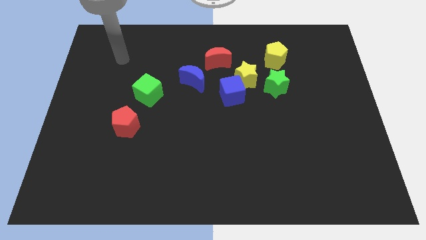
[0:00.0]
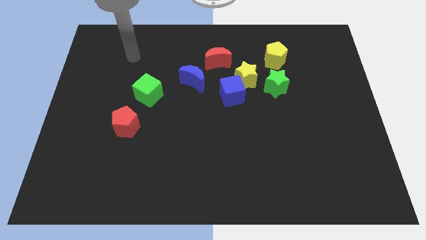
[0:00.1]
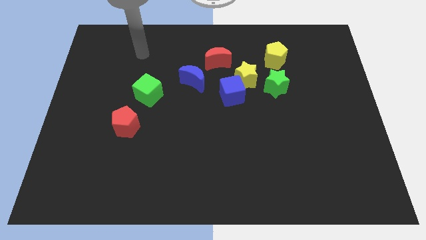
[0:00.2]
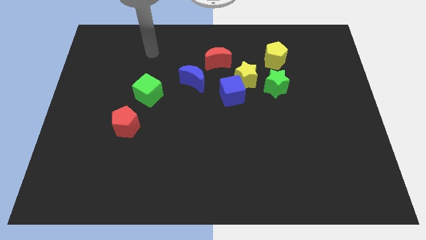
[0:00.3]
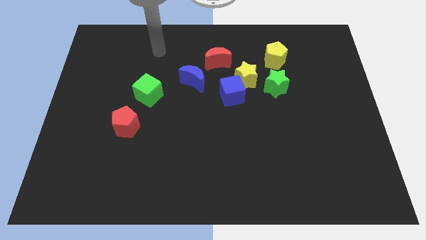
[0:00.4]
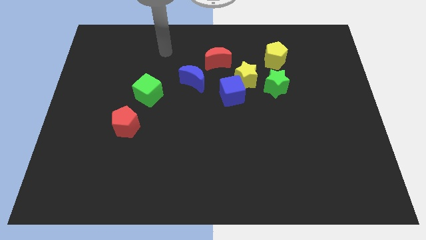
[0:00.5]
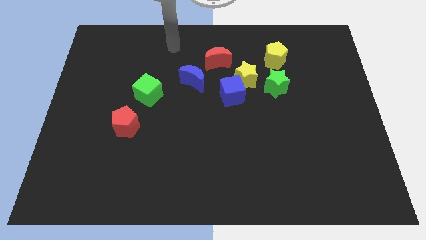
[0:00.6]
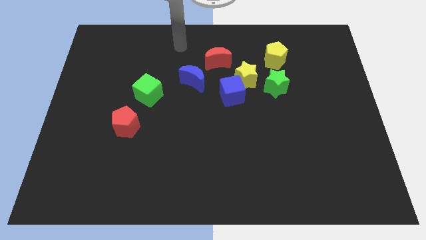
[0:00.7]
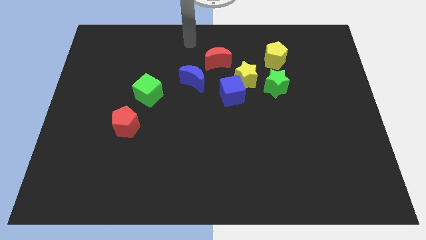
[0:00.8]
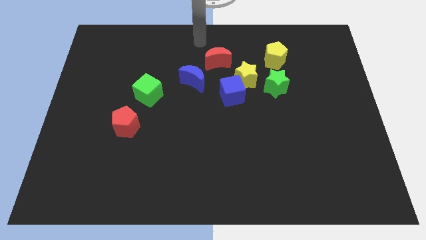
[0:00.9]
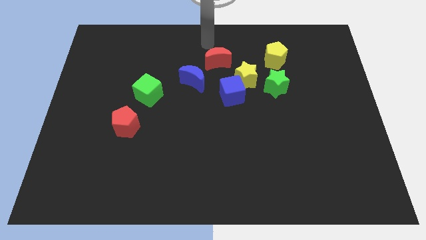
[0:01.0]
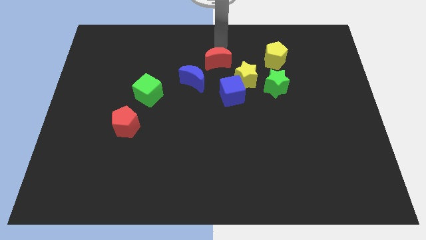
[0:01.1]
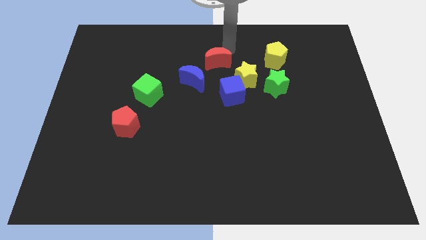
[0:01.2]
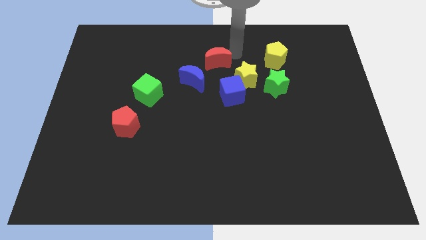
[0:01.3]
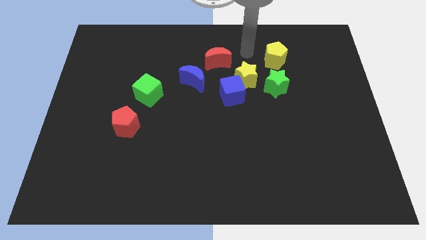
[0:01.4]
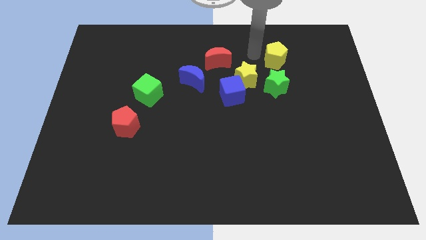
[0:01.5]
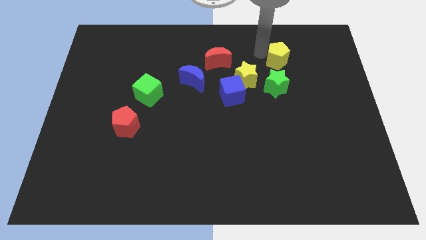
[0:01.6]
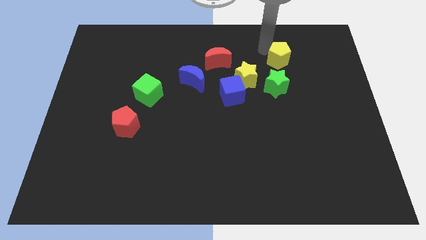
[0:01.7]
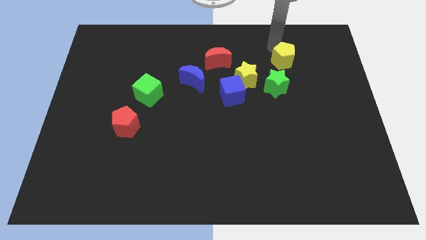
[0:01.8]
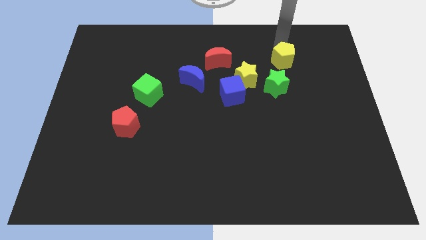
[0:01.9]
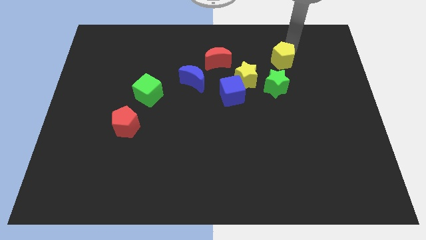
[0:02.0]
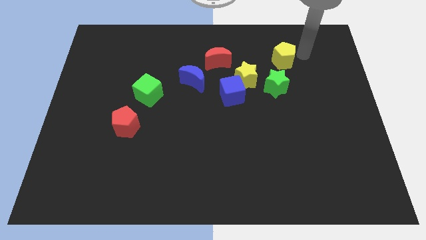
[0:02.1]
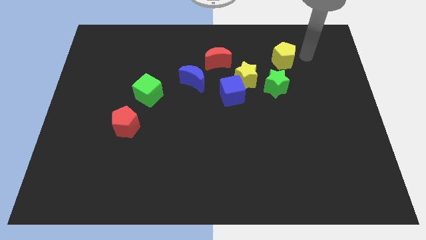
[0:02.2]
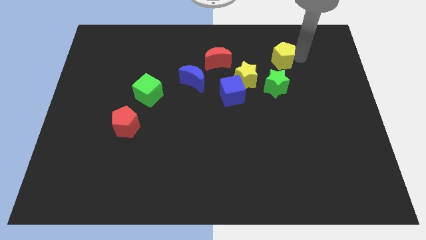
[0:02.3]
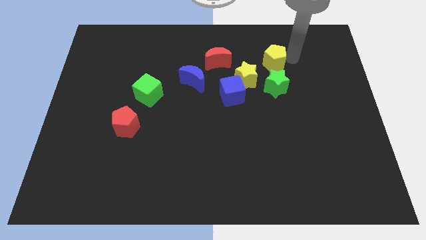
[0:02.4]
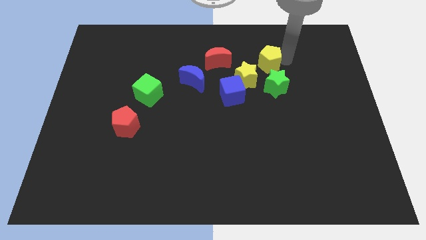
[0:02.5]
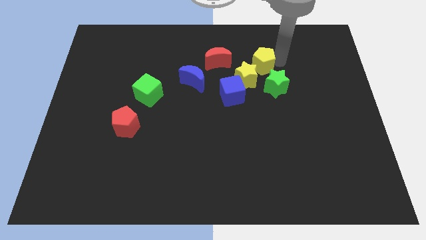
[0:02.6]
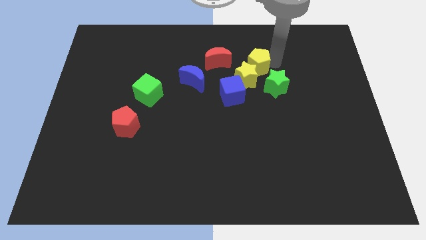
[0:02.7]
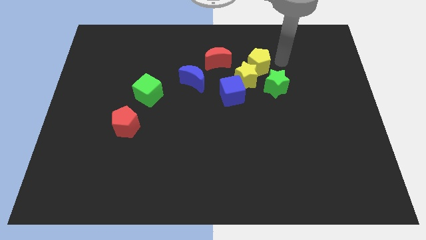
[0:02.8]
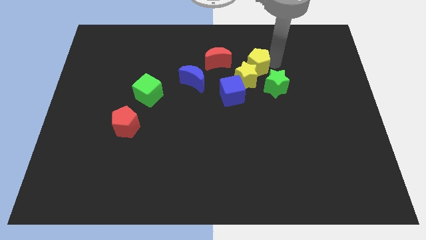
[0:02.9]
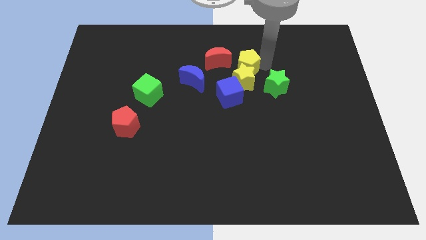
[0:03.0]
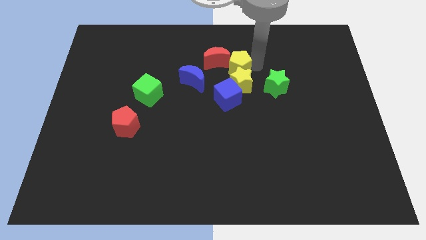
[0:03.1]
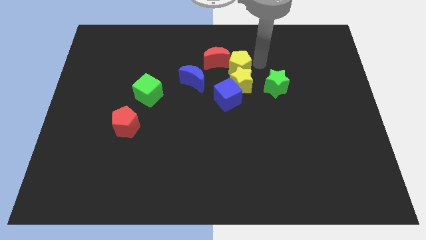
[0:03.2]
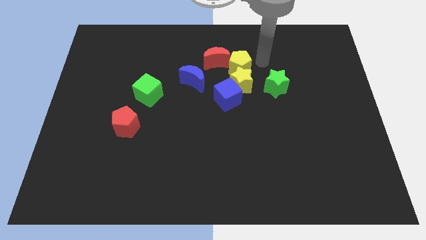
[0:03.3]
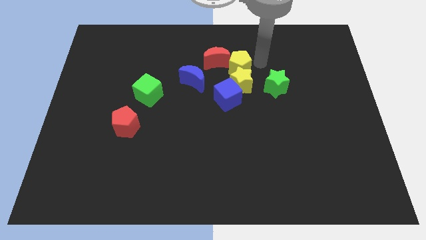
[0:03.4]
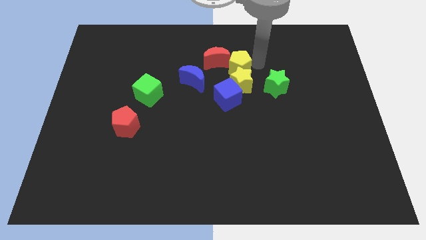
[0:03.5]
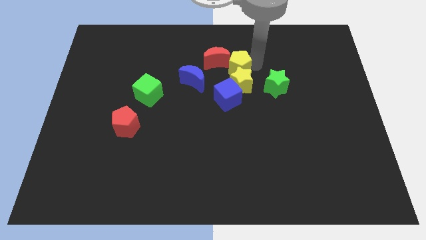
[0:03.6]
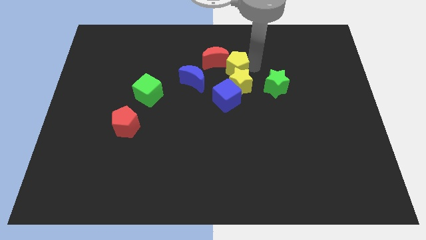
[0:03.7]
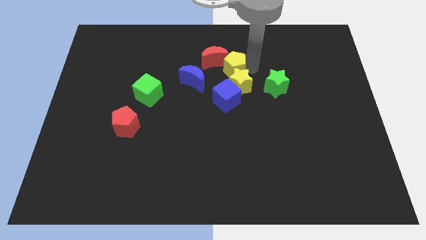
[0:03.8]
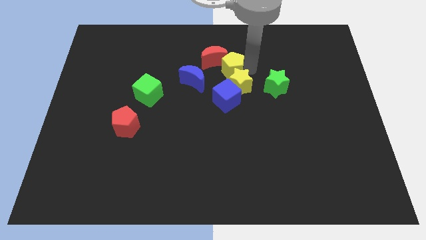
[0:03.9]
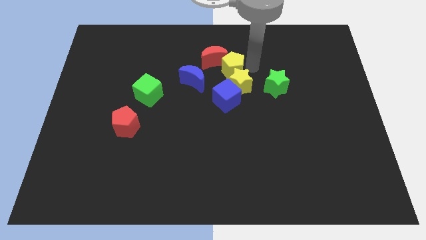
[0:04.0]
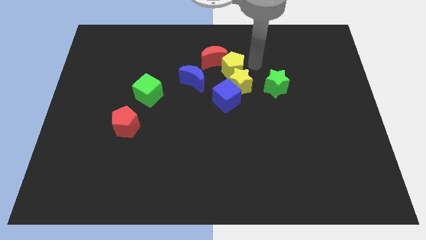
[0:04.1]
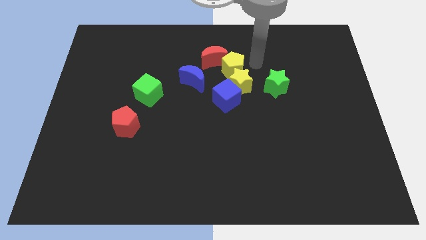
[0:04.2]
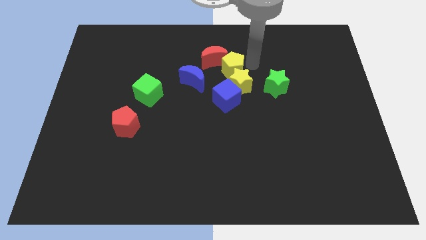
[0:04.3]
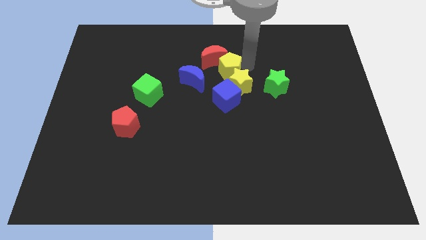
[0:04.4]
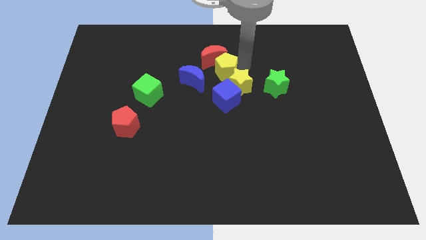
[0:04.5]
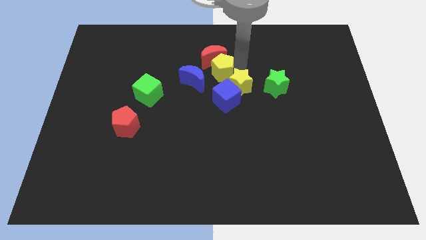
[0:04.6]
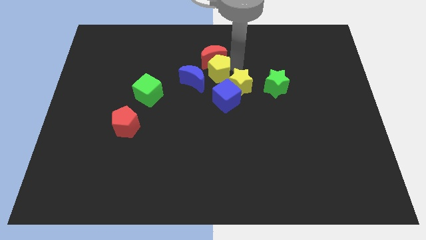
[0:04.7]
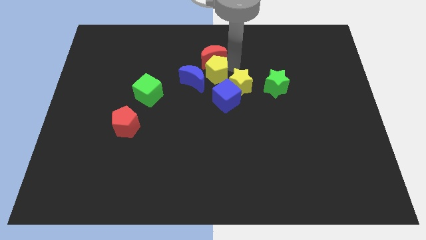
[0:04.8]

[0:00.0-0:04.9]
move the yellow pentagon next to the blue moon

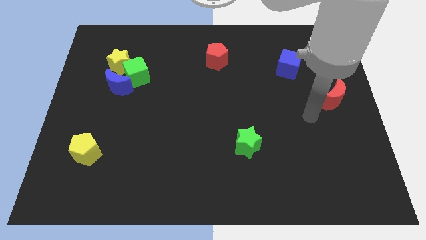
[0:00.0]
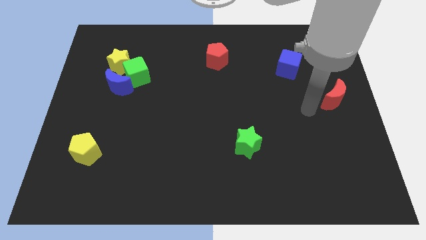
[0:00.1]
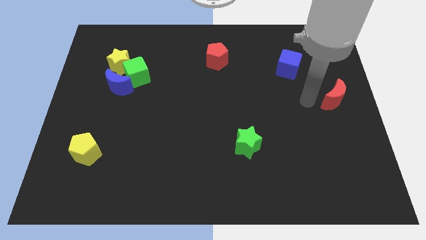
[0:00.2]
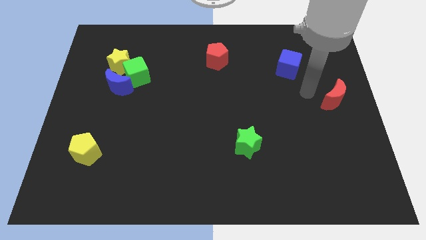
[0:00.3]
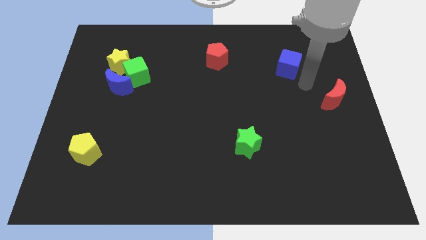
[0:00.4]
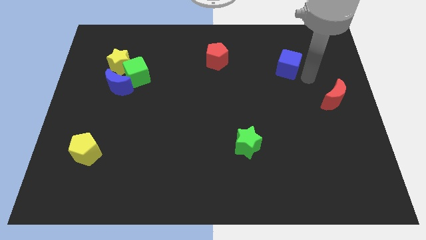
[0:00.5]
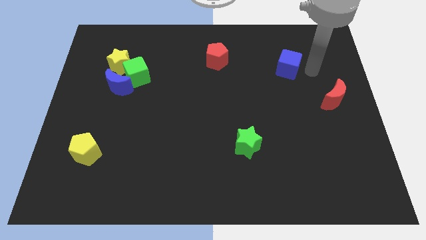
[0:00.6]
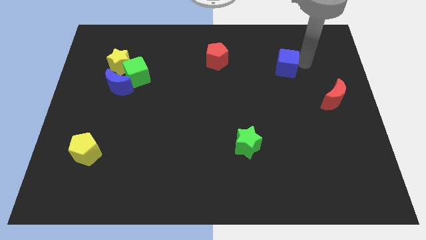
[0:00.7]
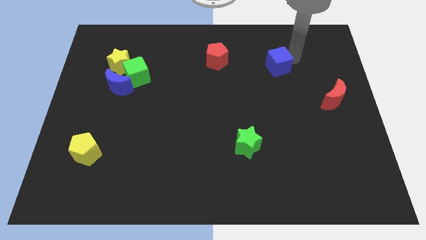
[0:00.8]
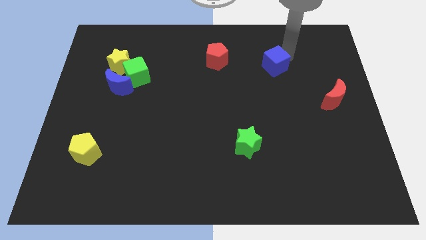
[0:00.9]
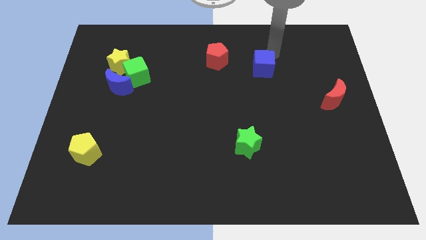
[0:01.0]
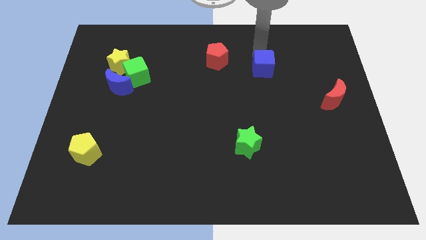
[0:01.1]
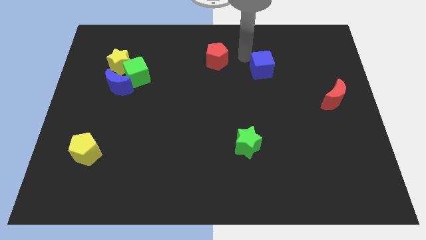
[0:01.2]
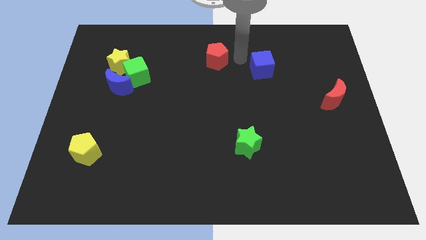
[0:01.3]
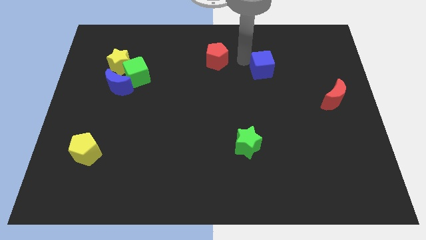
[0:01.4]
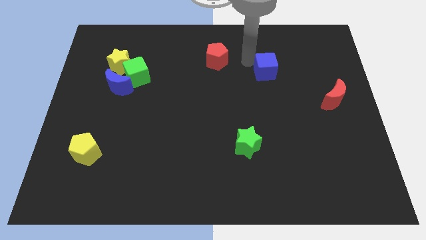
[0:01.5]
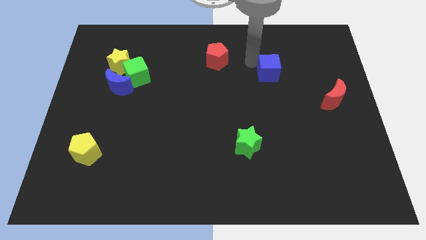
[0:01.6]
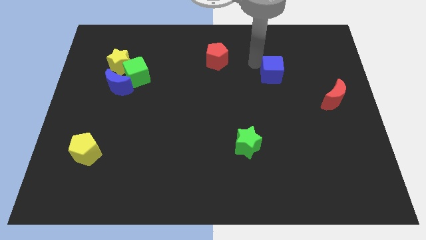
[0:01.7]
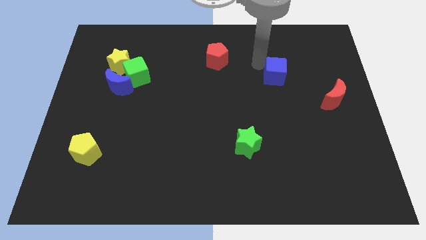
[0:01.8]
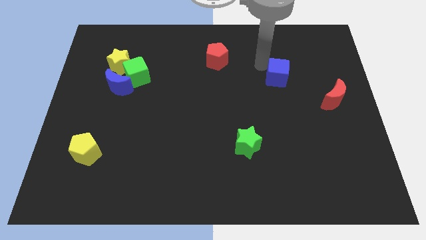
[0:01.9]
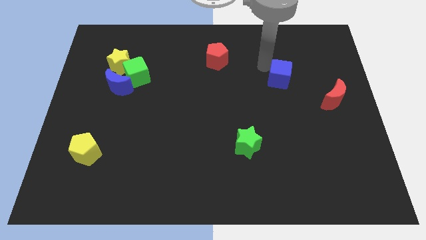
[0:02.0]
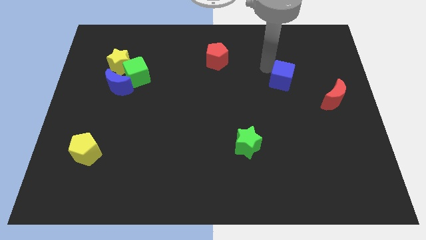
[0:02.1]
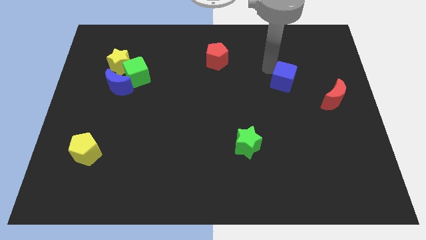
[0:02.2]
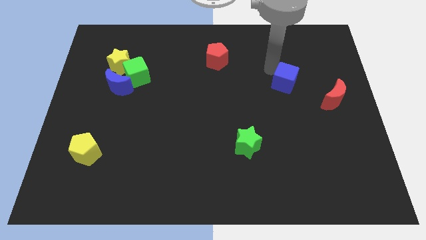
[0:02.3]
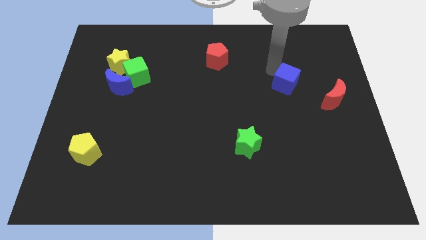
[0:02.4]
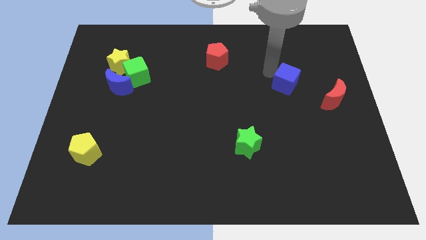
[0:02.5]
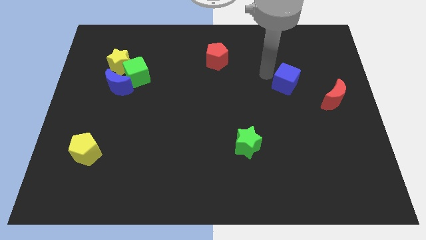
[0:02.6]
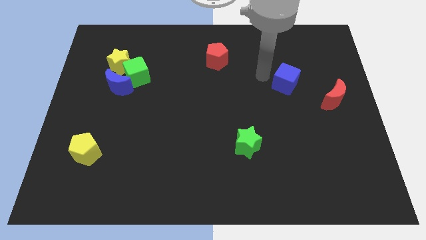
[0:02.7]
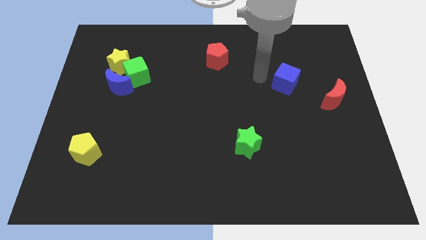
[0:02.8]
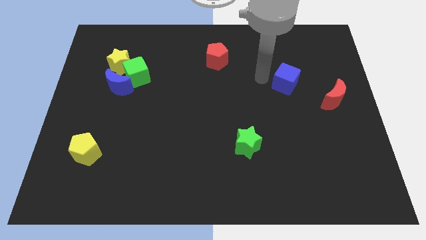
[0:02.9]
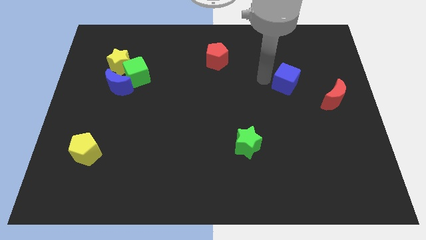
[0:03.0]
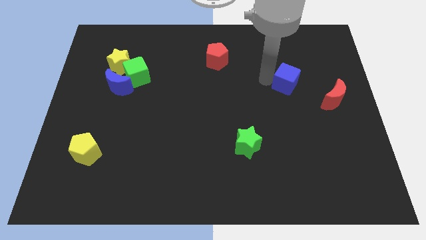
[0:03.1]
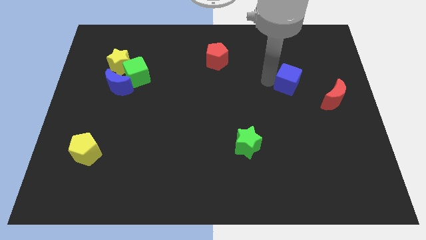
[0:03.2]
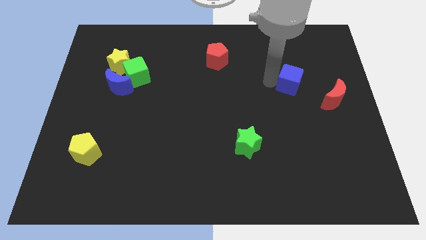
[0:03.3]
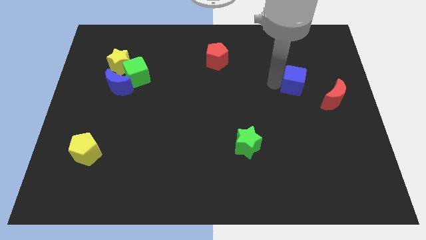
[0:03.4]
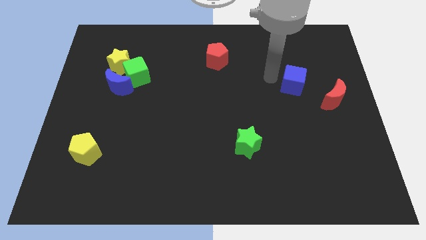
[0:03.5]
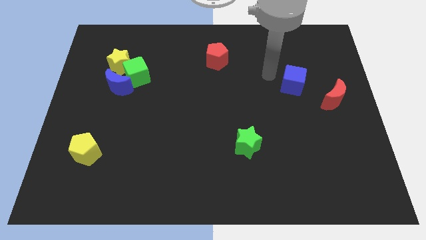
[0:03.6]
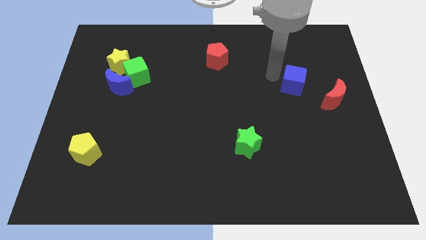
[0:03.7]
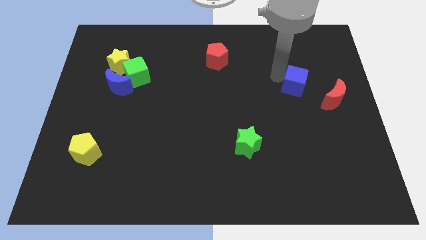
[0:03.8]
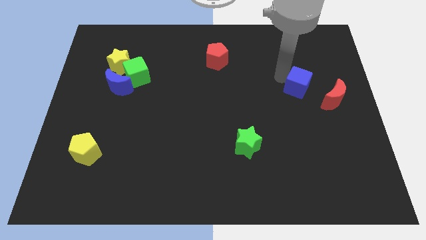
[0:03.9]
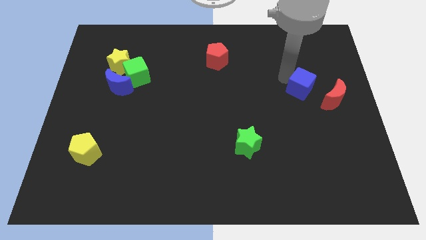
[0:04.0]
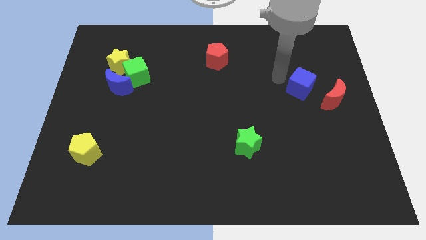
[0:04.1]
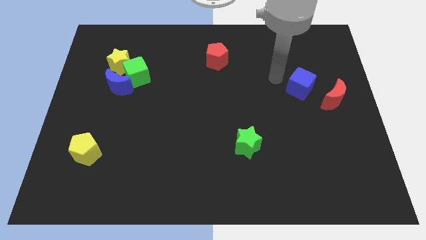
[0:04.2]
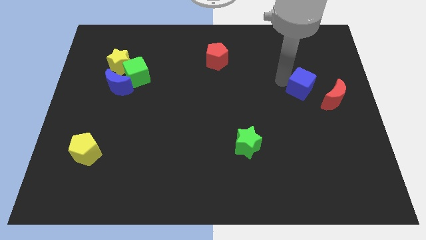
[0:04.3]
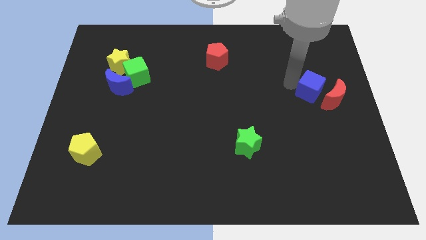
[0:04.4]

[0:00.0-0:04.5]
move the blue cube to the red moon
